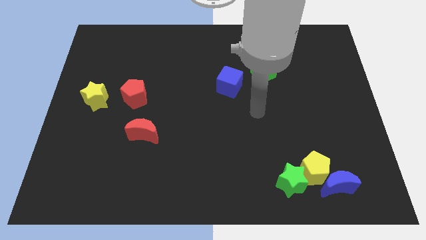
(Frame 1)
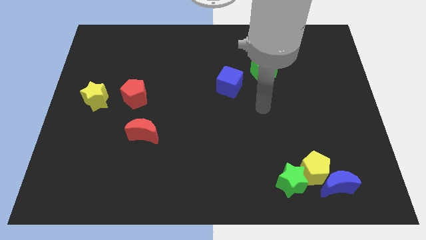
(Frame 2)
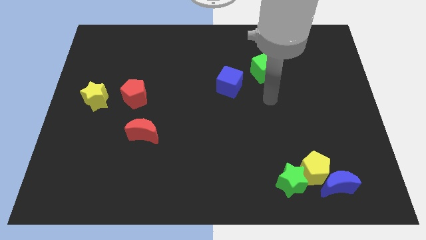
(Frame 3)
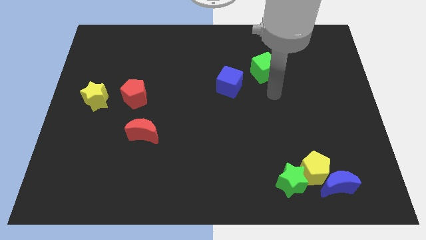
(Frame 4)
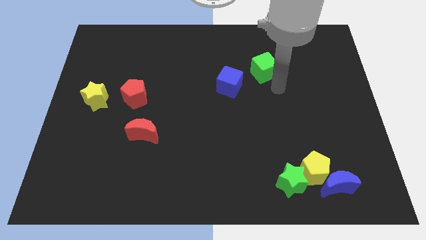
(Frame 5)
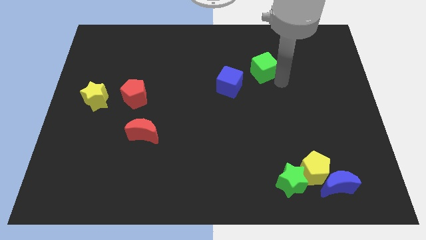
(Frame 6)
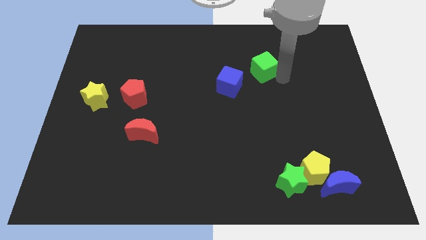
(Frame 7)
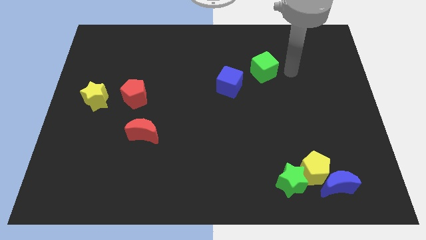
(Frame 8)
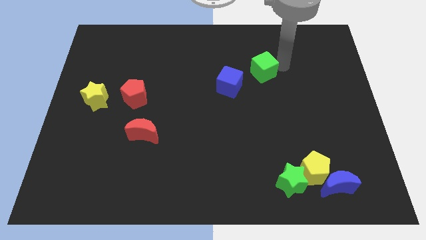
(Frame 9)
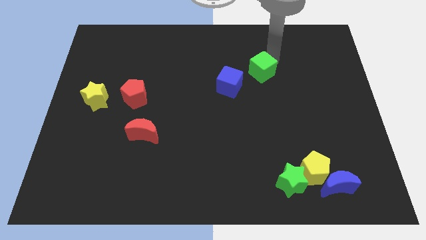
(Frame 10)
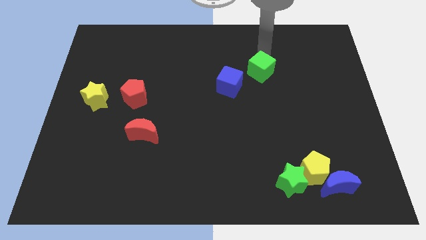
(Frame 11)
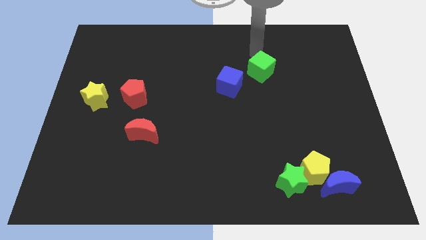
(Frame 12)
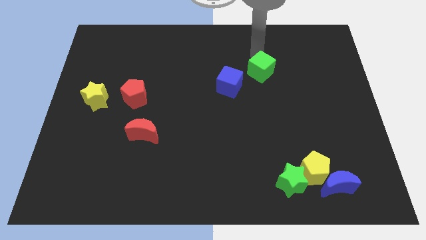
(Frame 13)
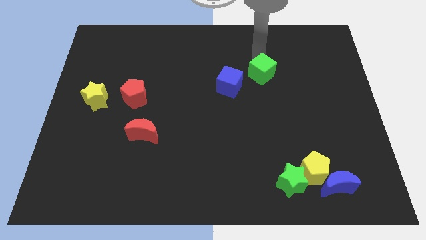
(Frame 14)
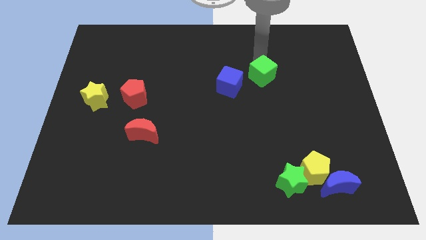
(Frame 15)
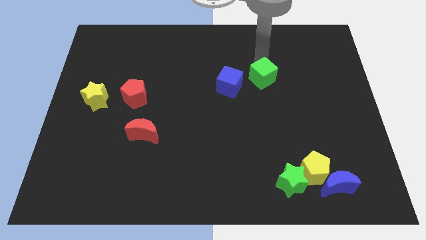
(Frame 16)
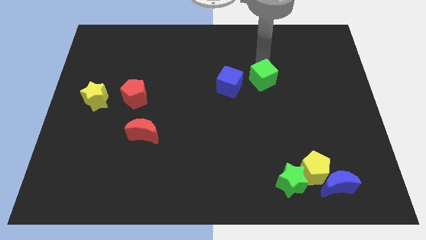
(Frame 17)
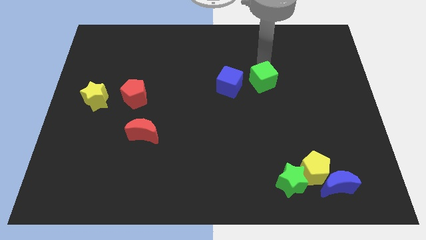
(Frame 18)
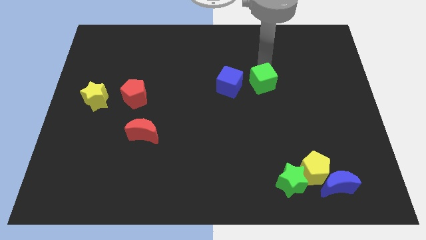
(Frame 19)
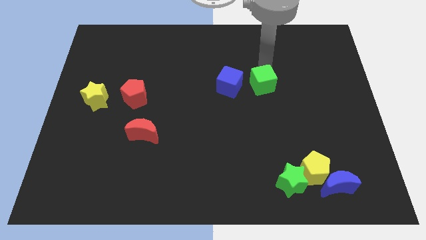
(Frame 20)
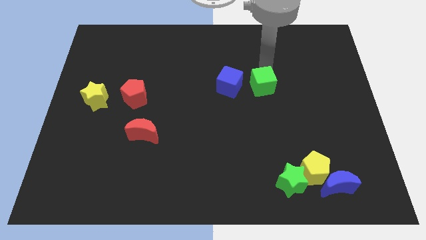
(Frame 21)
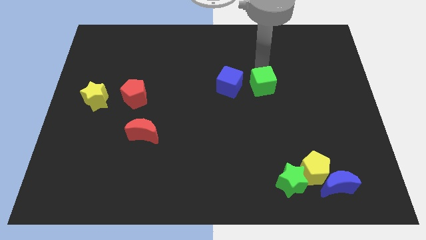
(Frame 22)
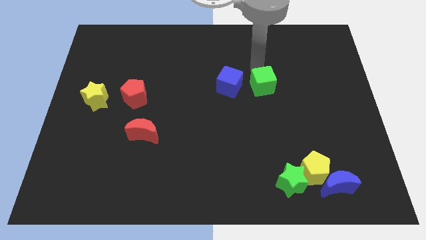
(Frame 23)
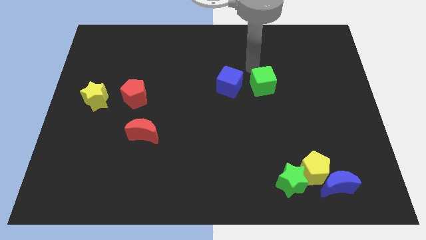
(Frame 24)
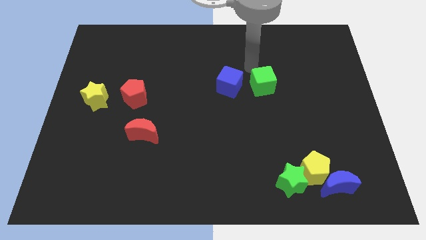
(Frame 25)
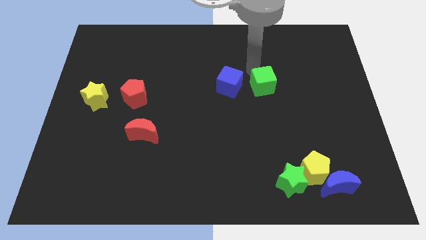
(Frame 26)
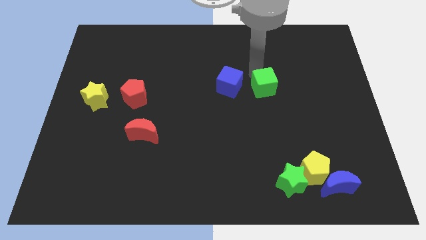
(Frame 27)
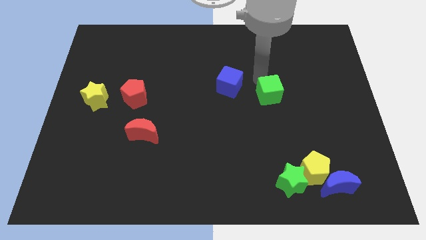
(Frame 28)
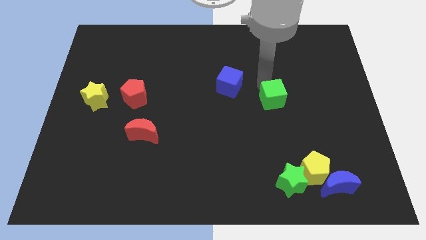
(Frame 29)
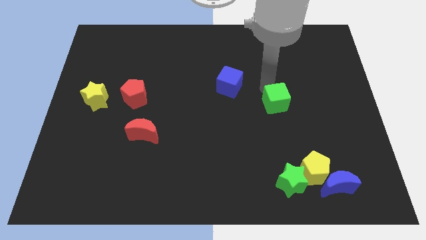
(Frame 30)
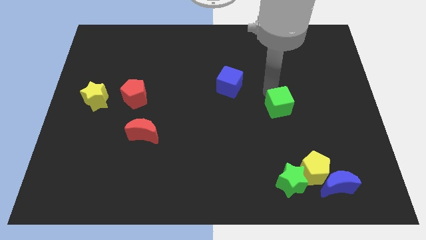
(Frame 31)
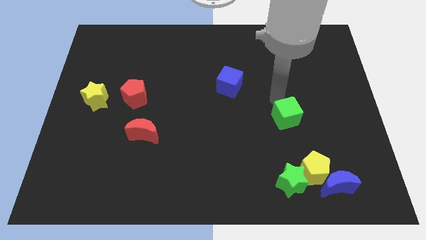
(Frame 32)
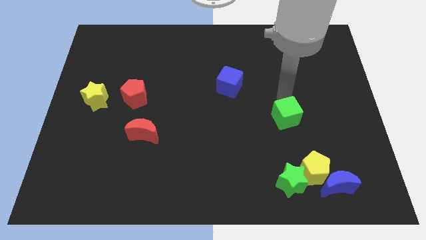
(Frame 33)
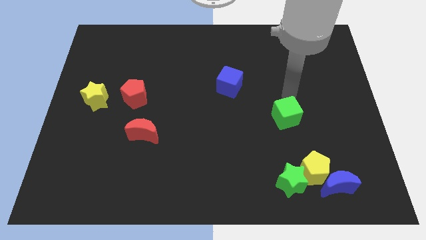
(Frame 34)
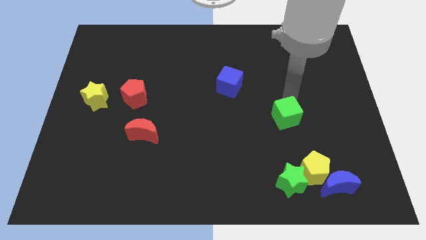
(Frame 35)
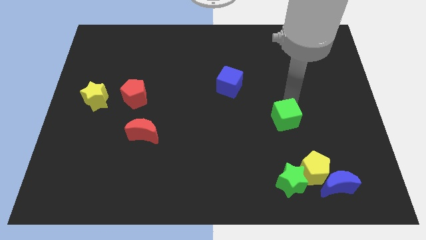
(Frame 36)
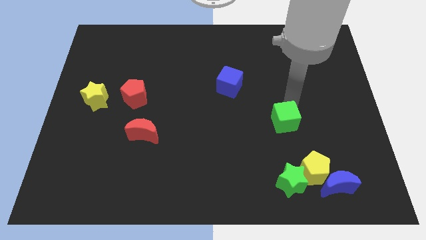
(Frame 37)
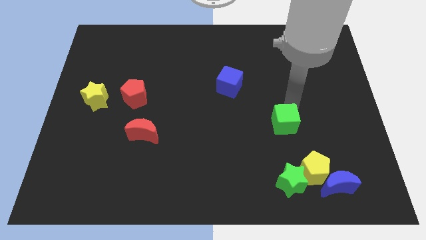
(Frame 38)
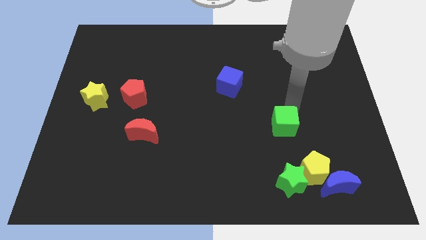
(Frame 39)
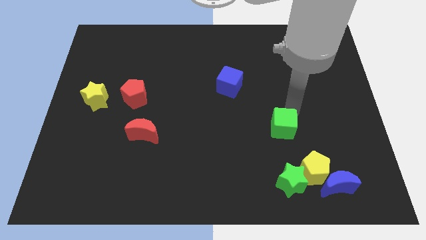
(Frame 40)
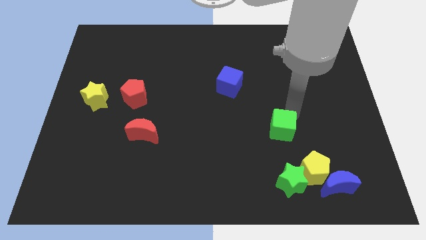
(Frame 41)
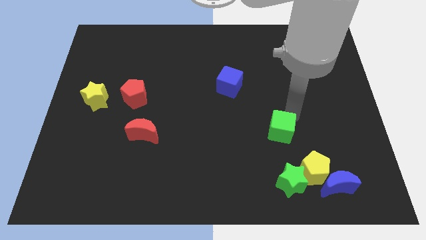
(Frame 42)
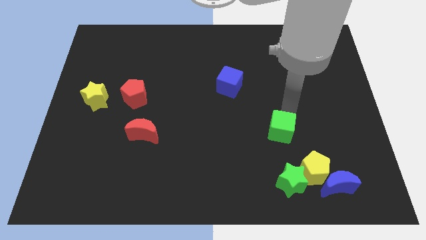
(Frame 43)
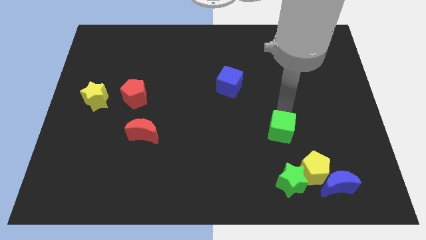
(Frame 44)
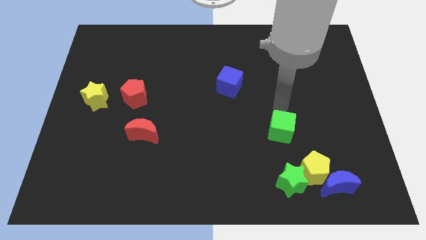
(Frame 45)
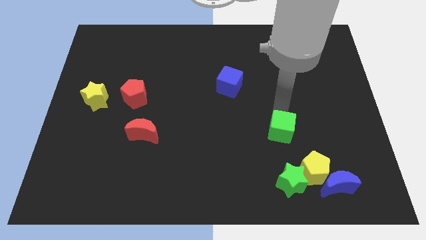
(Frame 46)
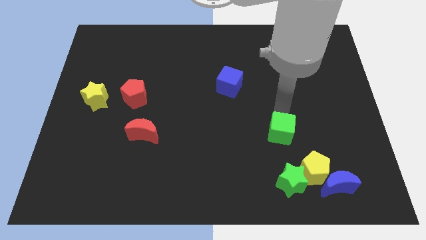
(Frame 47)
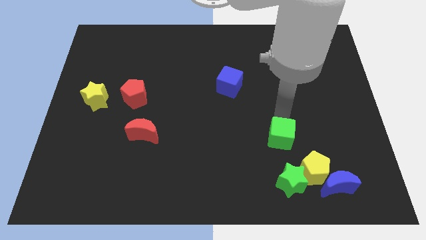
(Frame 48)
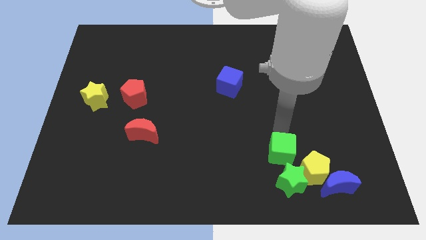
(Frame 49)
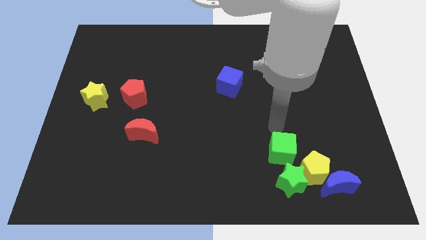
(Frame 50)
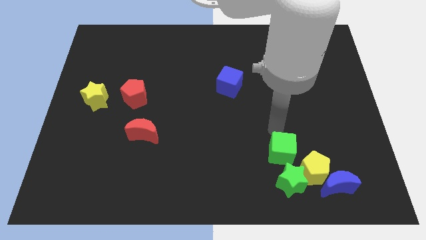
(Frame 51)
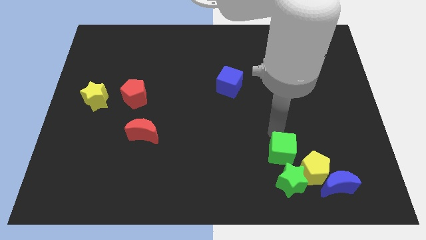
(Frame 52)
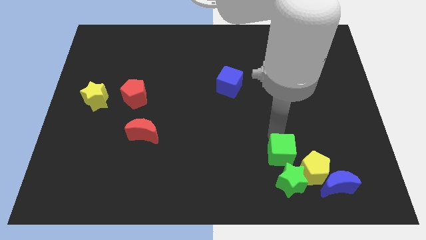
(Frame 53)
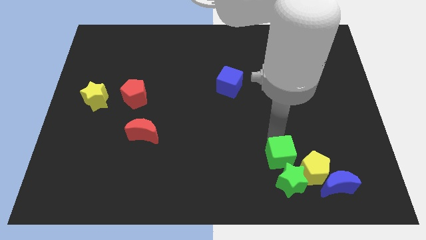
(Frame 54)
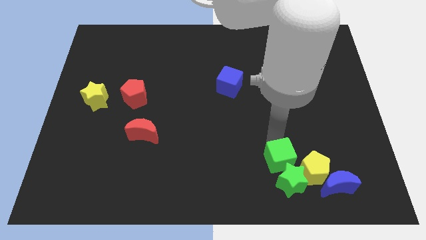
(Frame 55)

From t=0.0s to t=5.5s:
slide the green cube towards the green star

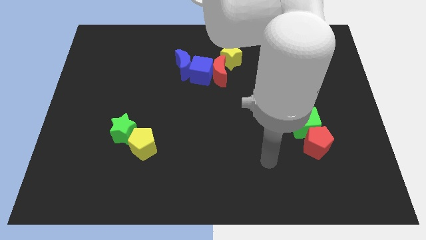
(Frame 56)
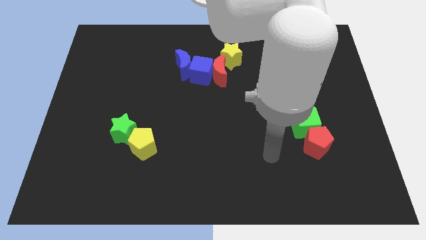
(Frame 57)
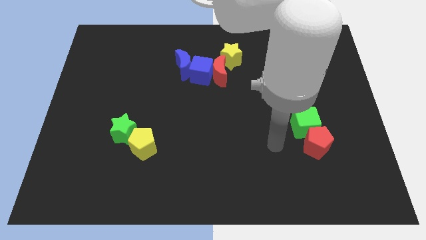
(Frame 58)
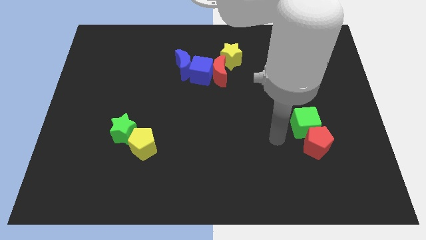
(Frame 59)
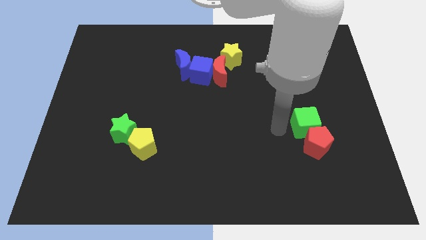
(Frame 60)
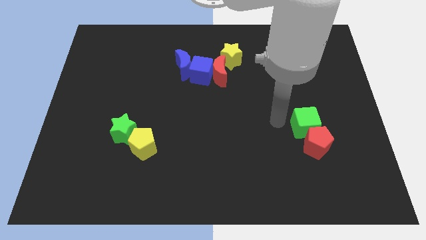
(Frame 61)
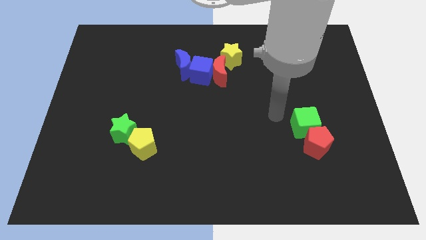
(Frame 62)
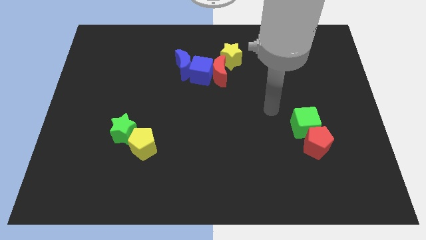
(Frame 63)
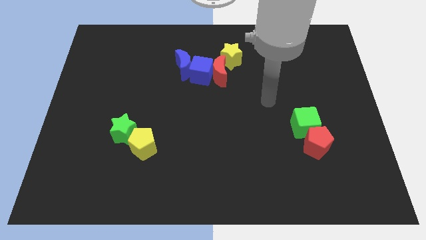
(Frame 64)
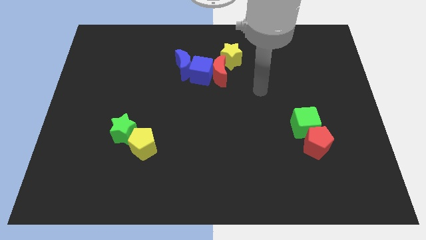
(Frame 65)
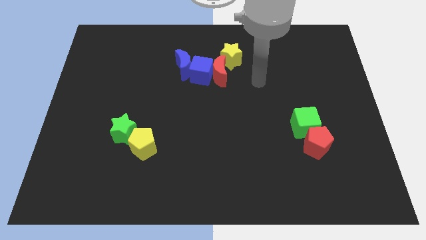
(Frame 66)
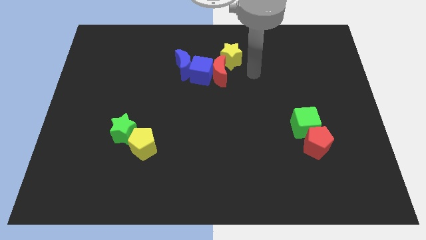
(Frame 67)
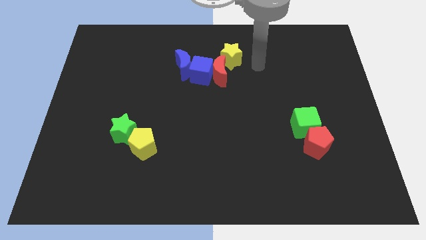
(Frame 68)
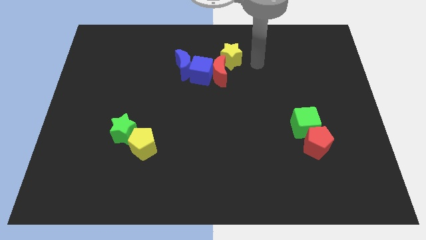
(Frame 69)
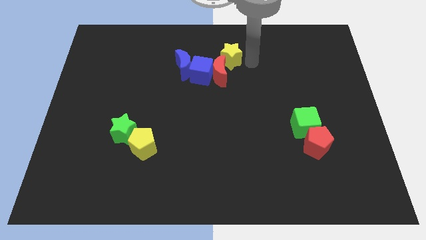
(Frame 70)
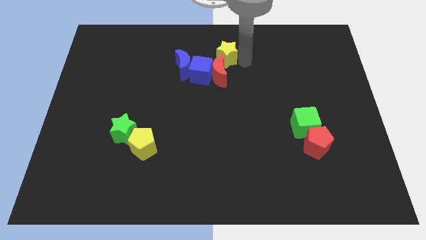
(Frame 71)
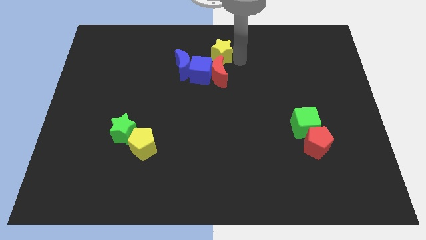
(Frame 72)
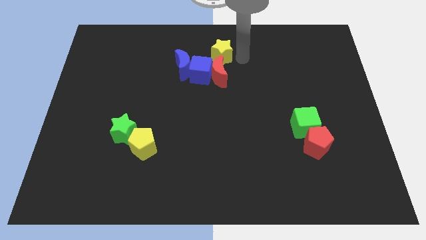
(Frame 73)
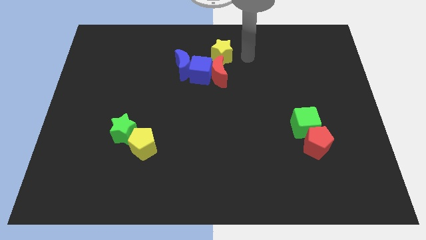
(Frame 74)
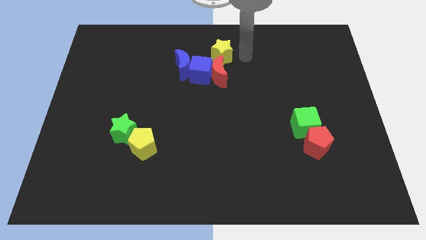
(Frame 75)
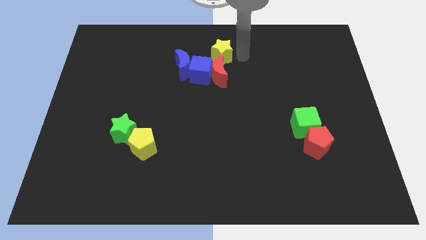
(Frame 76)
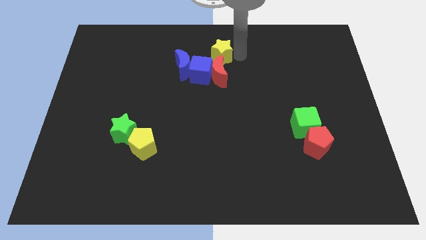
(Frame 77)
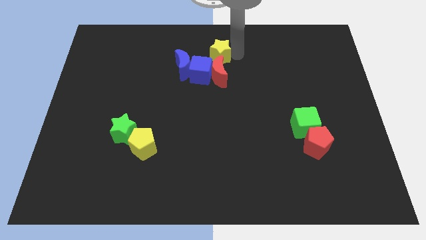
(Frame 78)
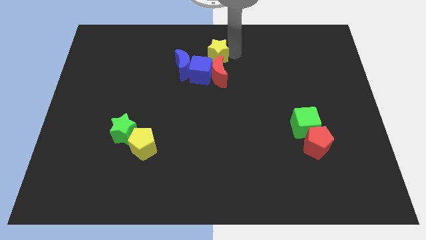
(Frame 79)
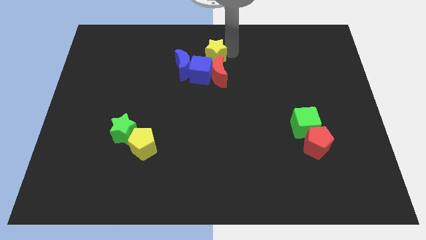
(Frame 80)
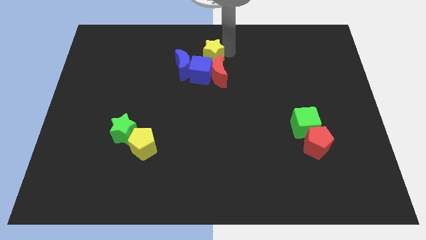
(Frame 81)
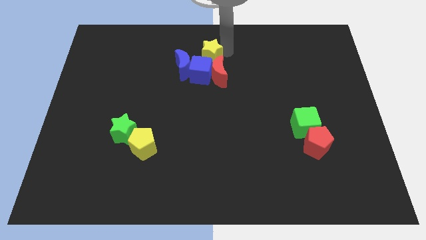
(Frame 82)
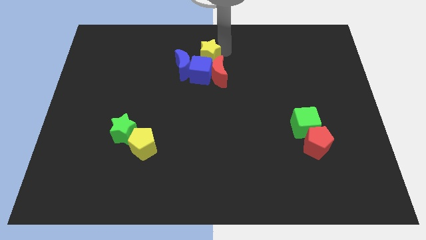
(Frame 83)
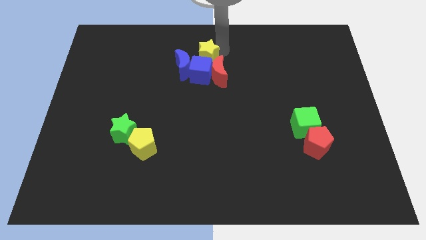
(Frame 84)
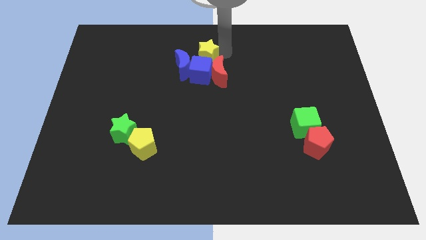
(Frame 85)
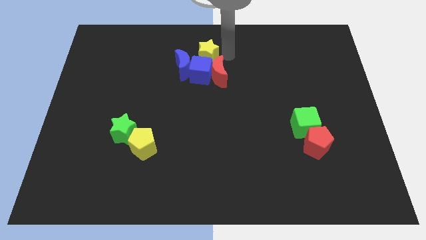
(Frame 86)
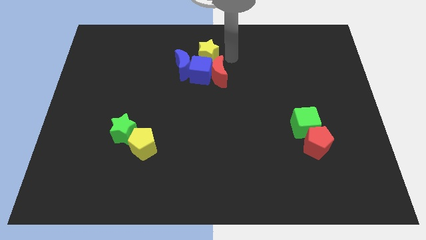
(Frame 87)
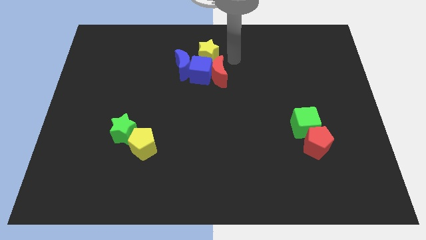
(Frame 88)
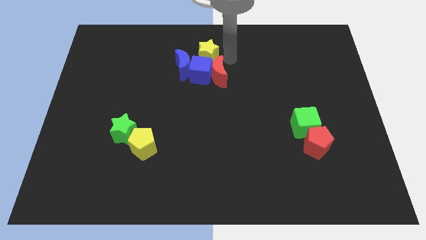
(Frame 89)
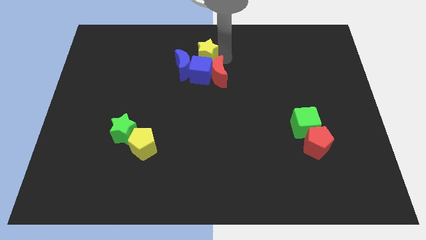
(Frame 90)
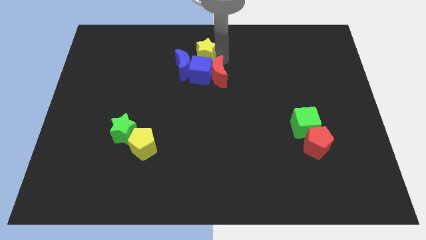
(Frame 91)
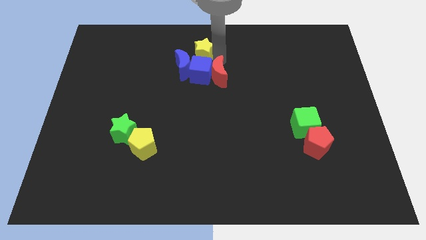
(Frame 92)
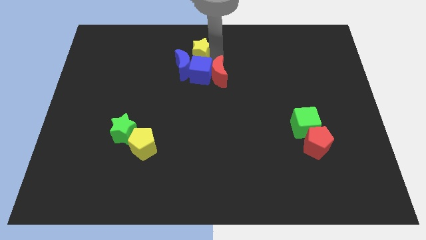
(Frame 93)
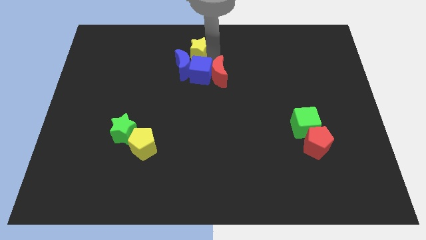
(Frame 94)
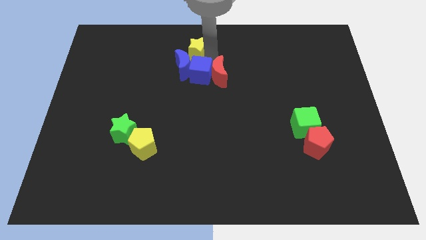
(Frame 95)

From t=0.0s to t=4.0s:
move the yellow star towards the blue moon
